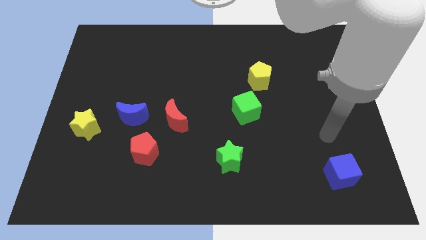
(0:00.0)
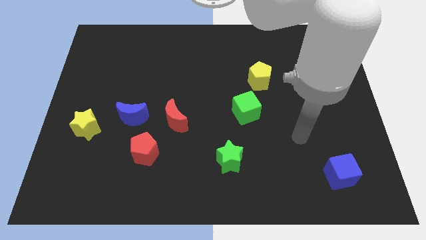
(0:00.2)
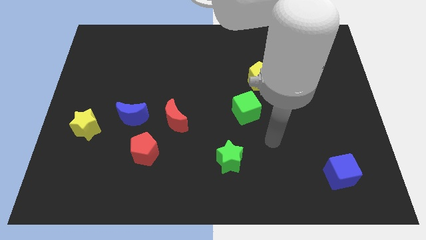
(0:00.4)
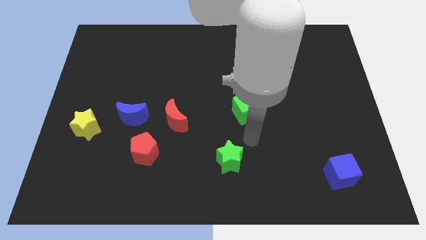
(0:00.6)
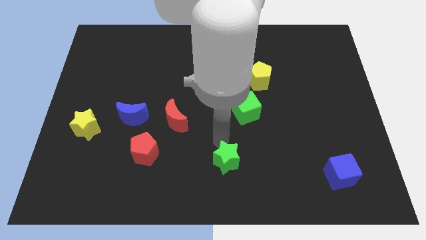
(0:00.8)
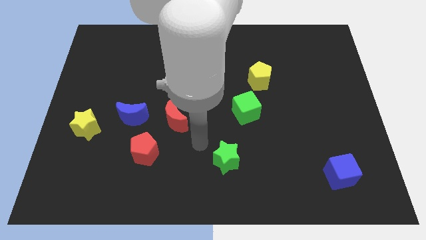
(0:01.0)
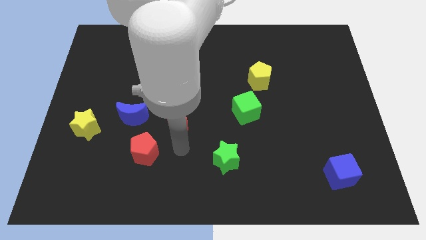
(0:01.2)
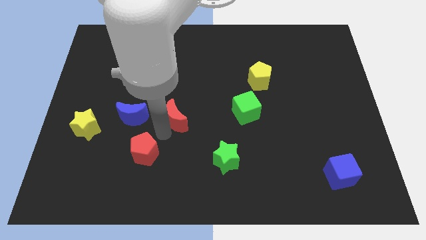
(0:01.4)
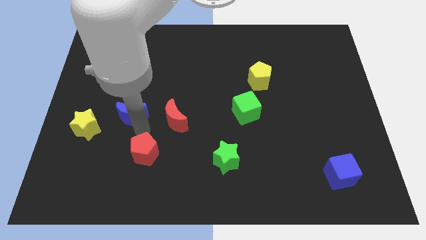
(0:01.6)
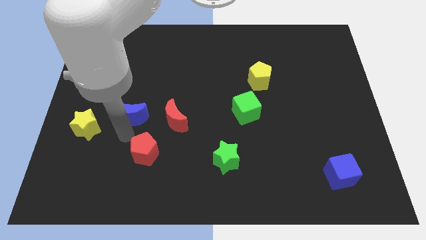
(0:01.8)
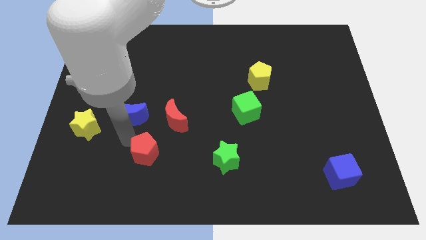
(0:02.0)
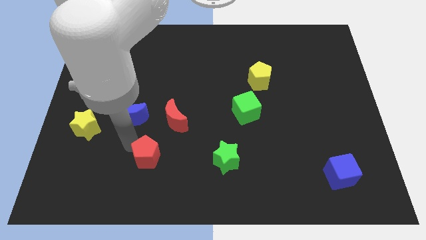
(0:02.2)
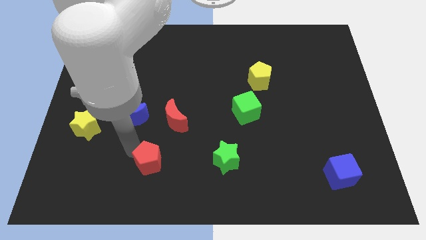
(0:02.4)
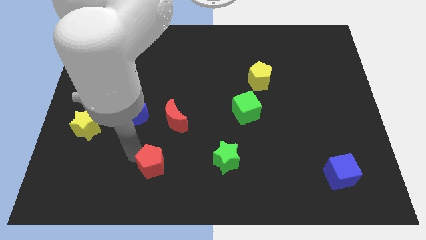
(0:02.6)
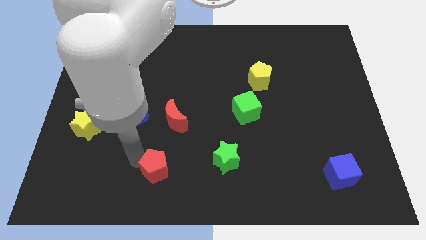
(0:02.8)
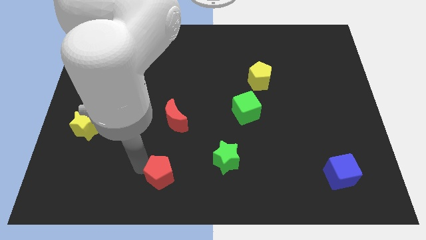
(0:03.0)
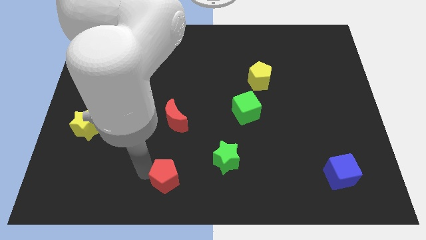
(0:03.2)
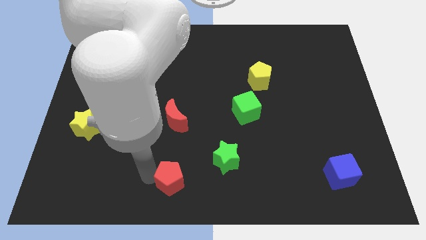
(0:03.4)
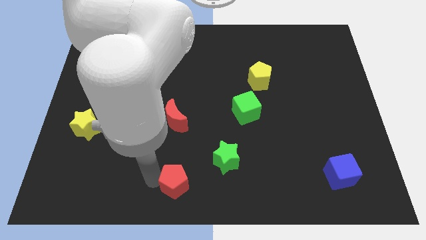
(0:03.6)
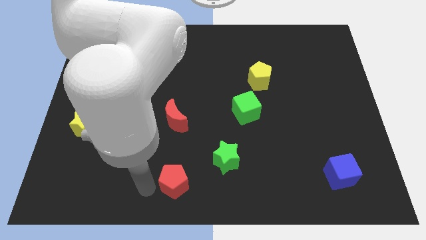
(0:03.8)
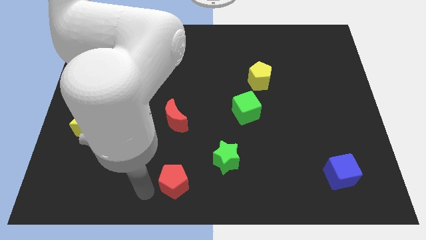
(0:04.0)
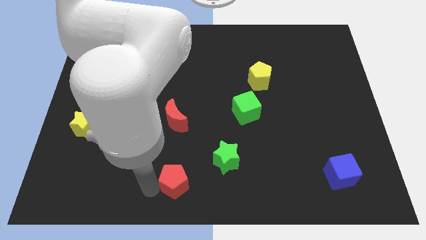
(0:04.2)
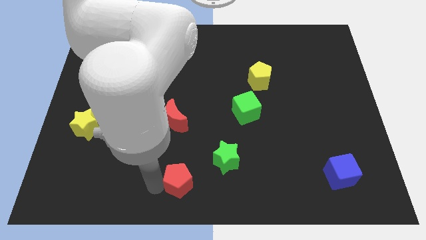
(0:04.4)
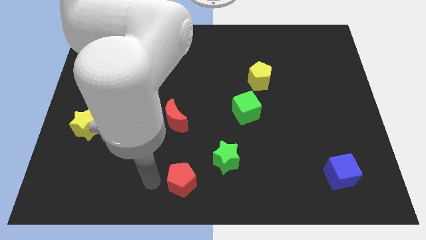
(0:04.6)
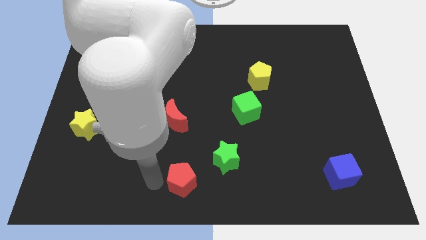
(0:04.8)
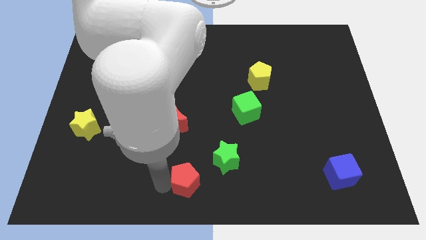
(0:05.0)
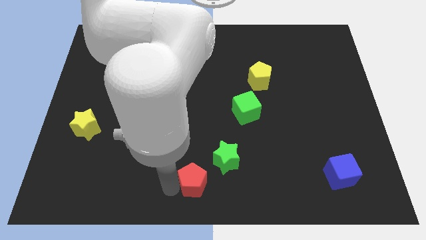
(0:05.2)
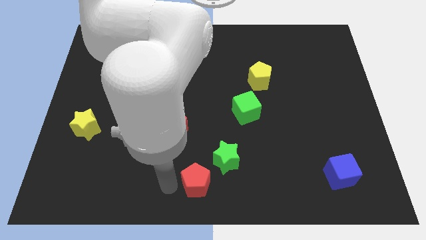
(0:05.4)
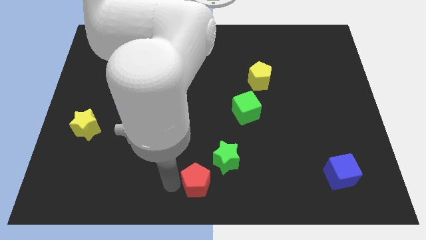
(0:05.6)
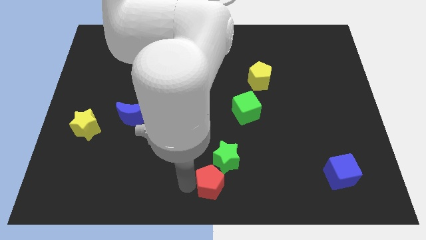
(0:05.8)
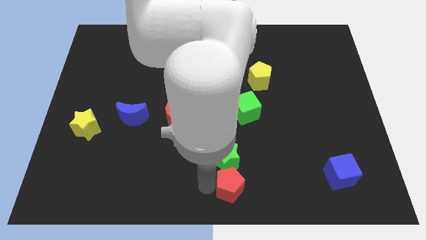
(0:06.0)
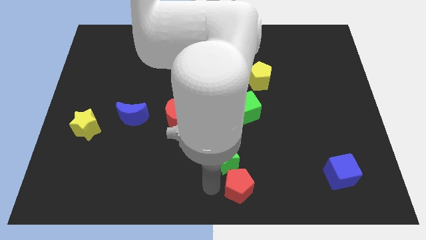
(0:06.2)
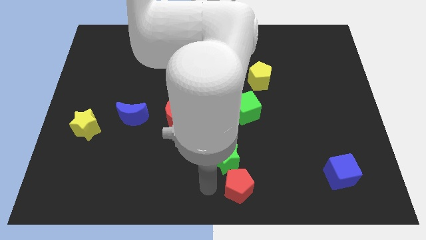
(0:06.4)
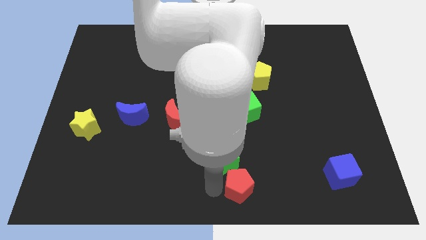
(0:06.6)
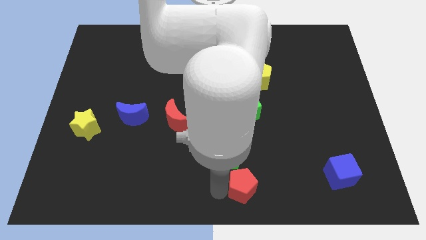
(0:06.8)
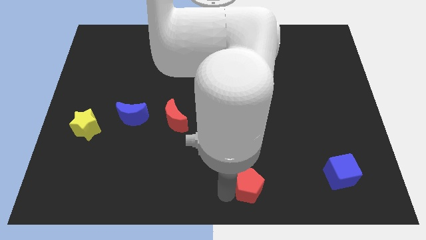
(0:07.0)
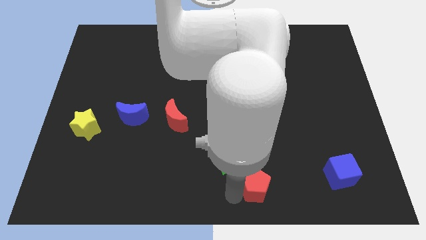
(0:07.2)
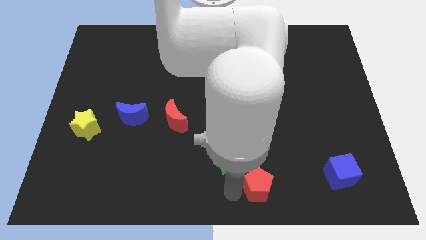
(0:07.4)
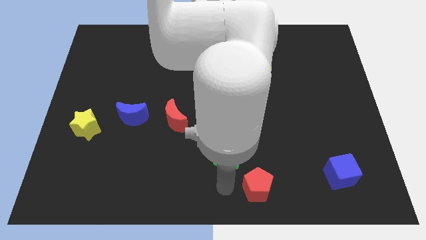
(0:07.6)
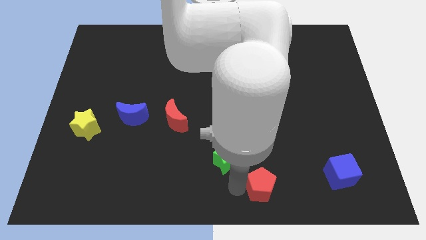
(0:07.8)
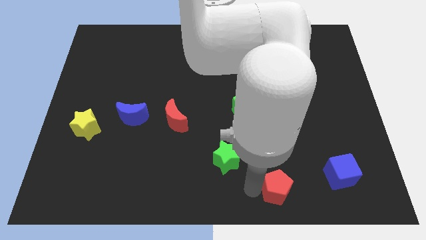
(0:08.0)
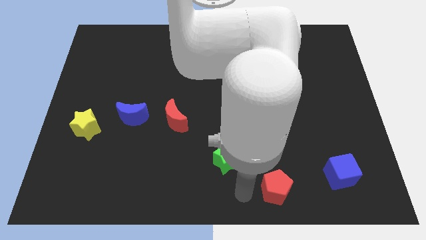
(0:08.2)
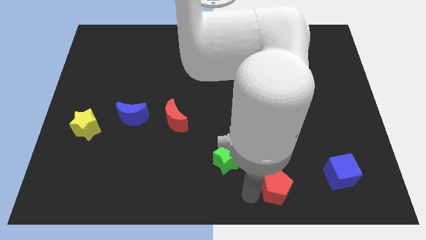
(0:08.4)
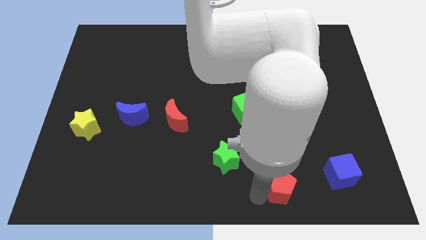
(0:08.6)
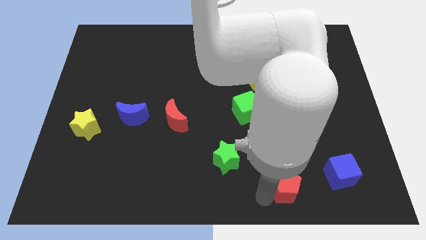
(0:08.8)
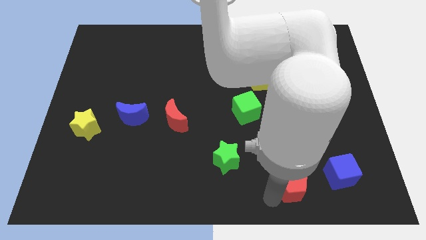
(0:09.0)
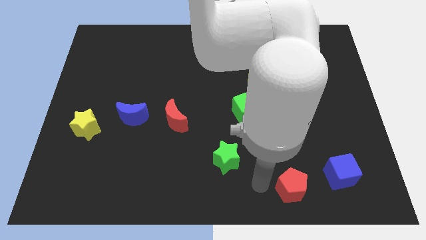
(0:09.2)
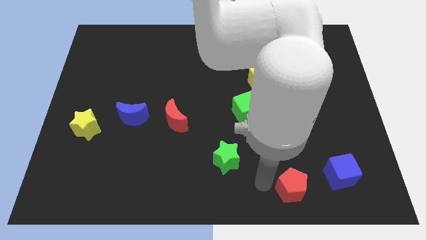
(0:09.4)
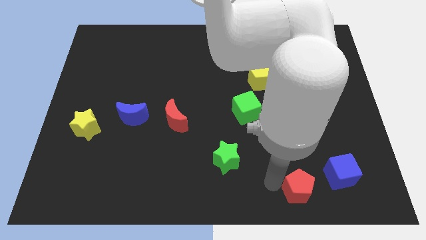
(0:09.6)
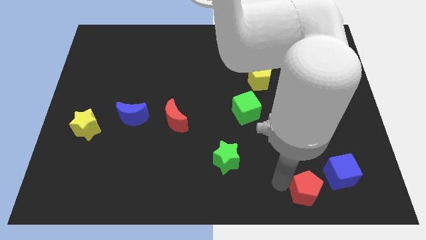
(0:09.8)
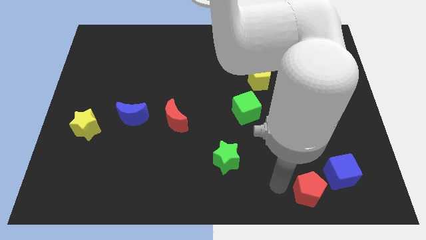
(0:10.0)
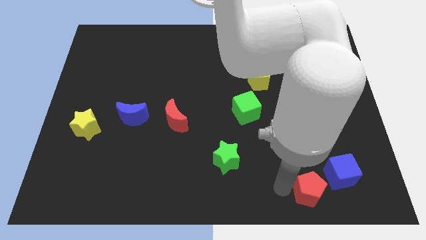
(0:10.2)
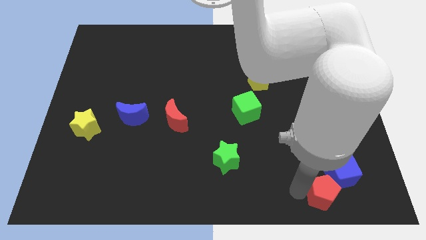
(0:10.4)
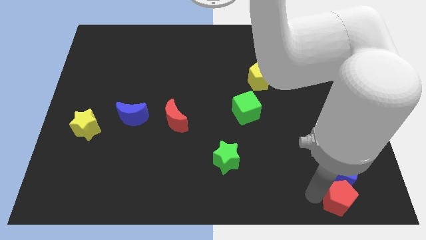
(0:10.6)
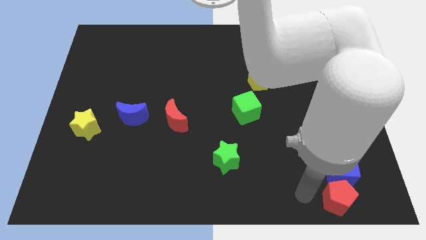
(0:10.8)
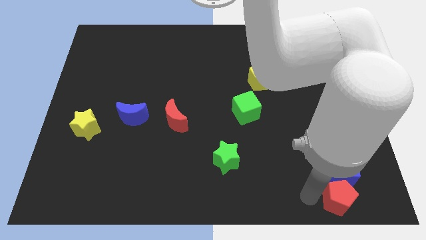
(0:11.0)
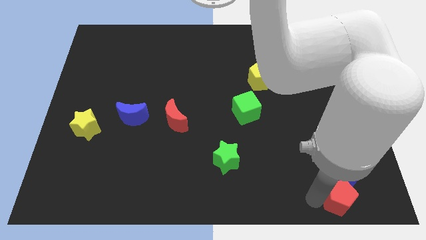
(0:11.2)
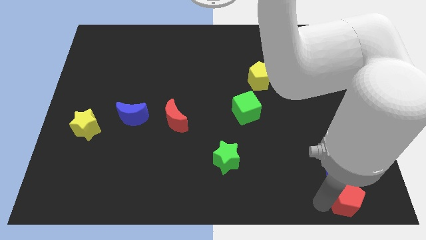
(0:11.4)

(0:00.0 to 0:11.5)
put the red pentagon to the bottom right

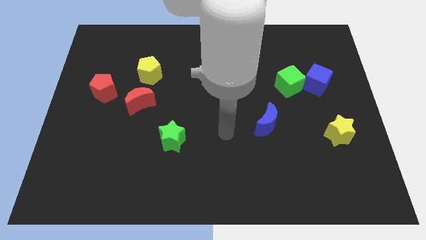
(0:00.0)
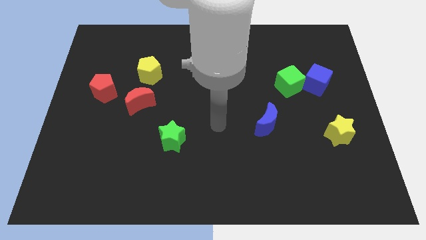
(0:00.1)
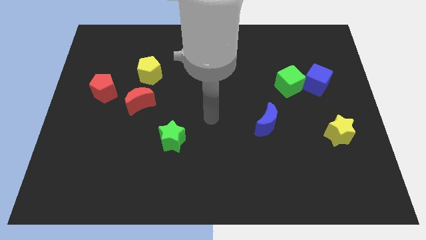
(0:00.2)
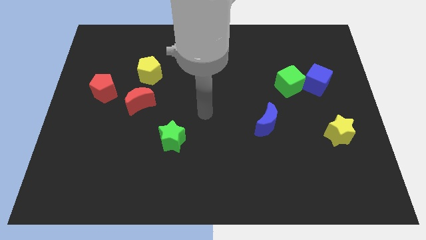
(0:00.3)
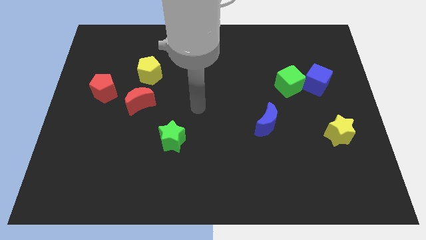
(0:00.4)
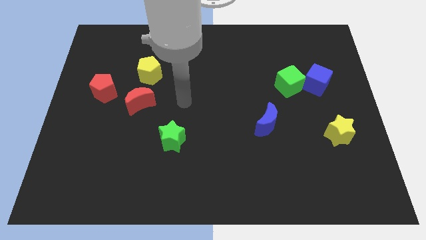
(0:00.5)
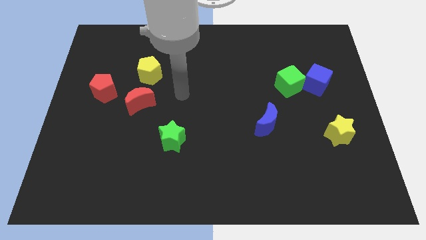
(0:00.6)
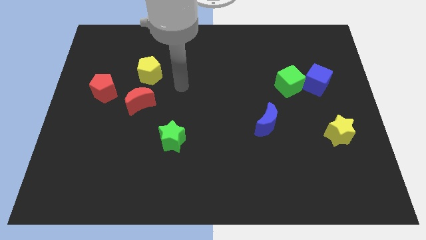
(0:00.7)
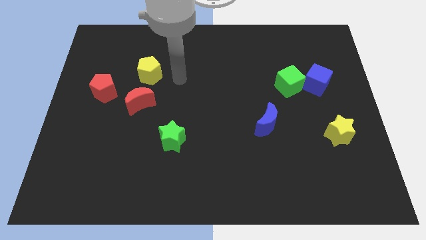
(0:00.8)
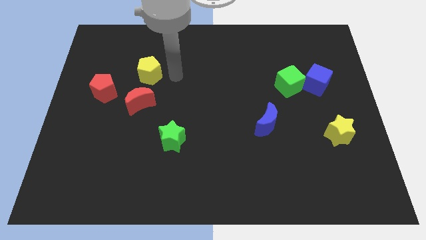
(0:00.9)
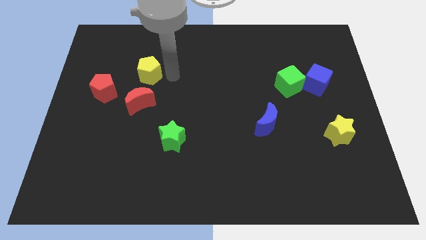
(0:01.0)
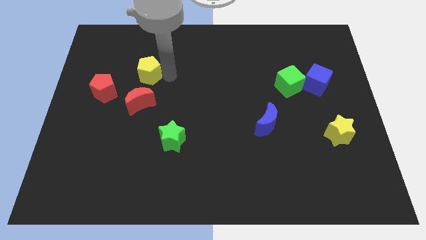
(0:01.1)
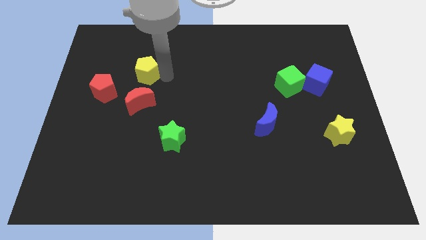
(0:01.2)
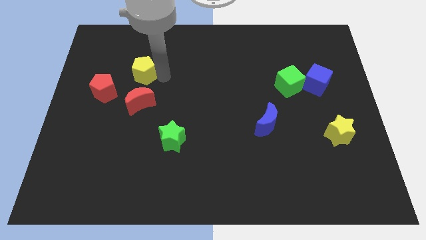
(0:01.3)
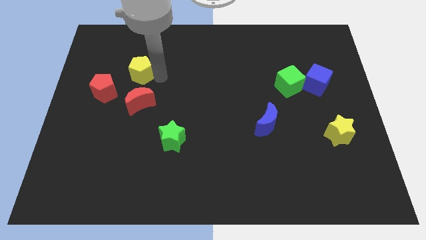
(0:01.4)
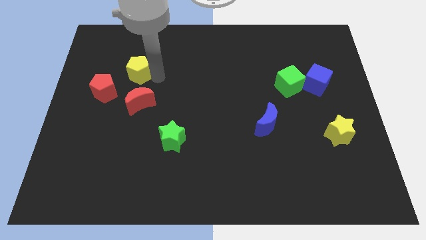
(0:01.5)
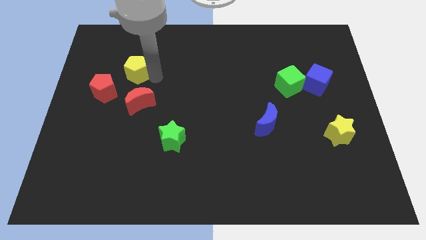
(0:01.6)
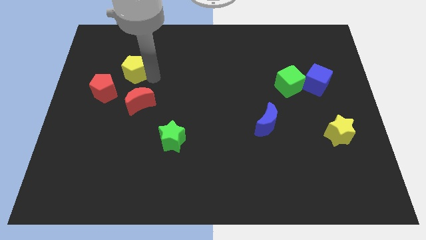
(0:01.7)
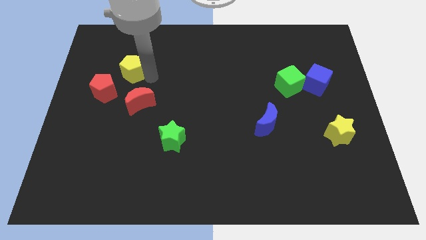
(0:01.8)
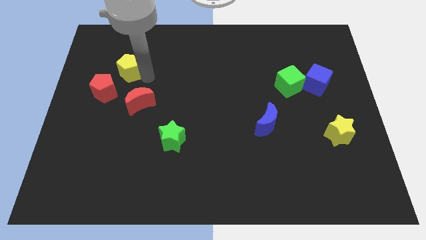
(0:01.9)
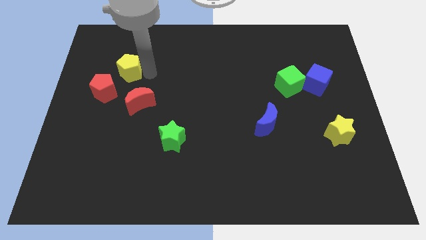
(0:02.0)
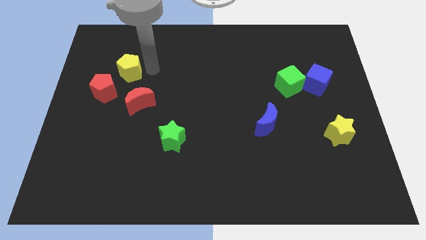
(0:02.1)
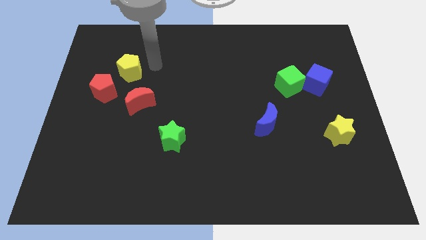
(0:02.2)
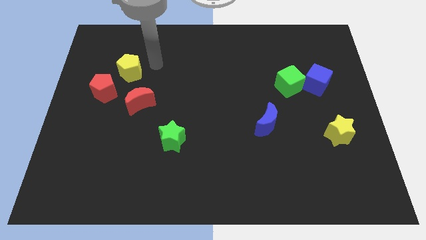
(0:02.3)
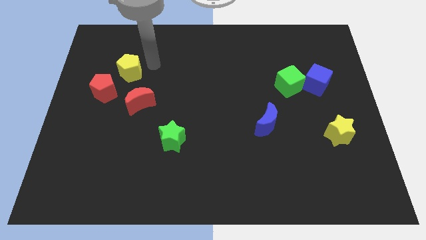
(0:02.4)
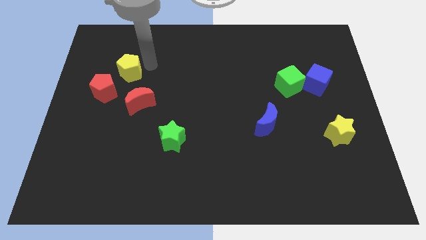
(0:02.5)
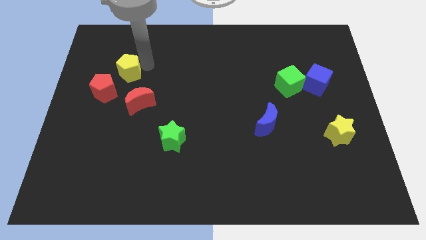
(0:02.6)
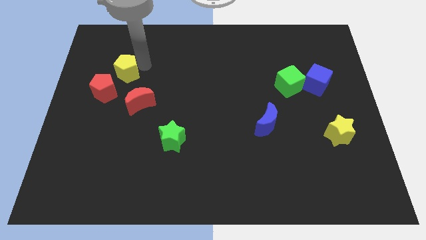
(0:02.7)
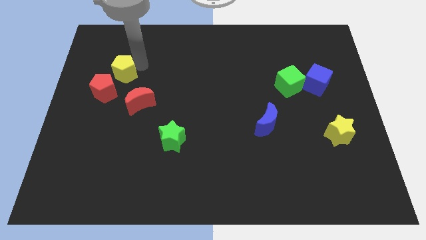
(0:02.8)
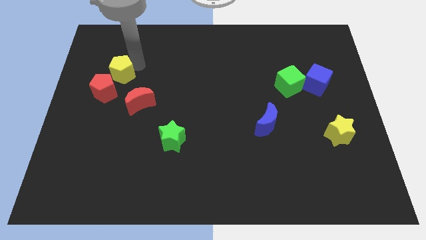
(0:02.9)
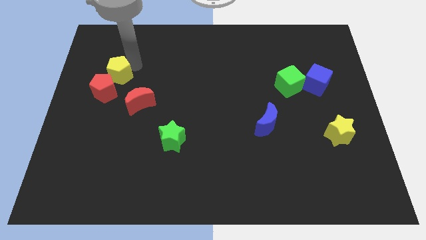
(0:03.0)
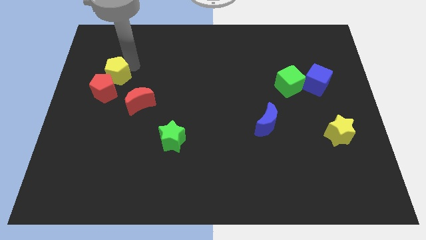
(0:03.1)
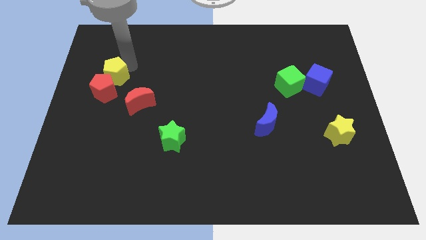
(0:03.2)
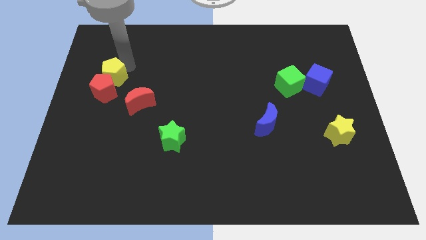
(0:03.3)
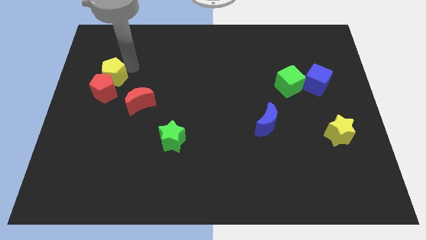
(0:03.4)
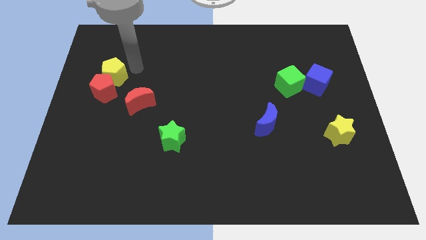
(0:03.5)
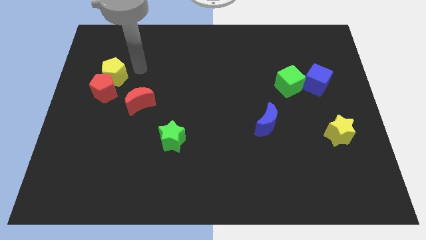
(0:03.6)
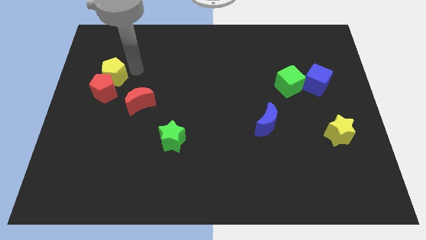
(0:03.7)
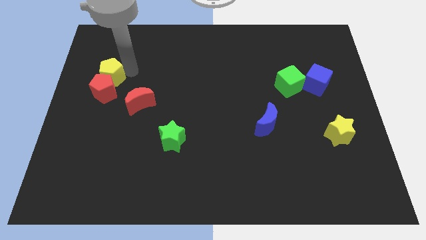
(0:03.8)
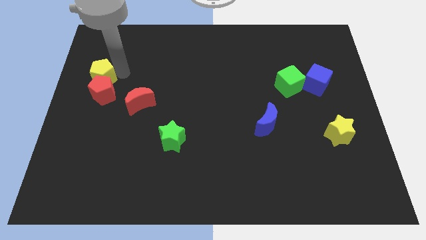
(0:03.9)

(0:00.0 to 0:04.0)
move the yellow pentagon to the left side of the board
